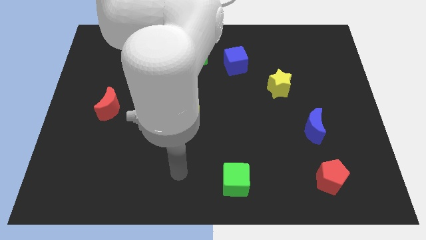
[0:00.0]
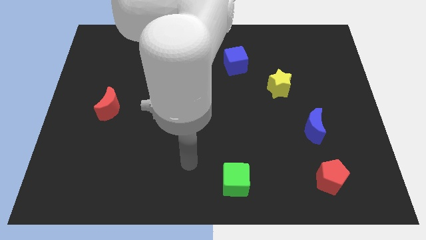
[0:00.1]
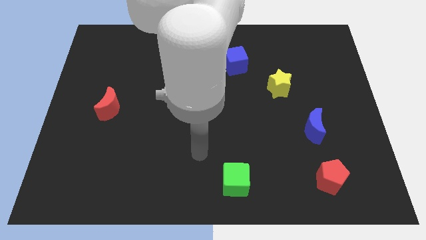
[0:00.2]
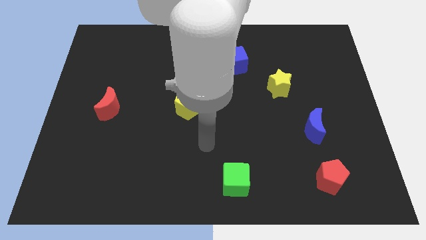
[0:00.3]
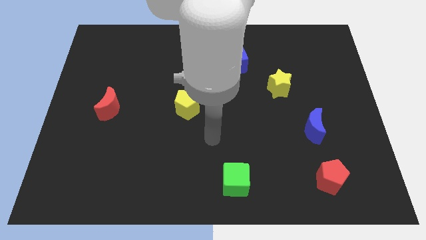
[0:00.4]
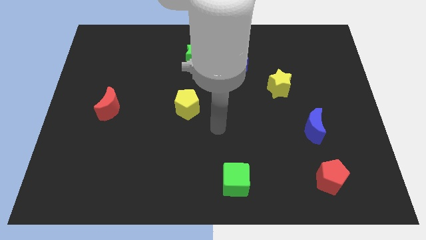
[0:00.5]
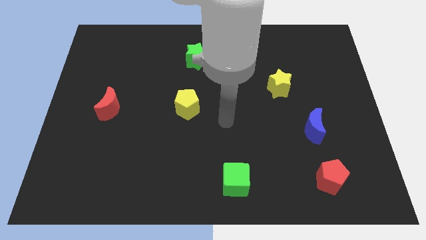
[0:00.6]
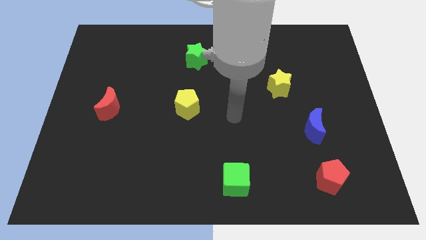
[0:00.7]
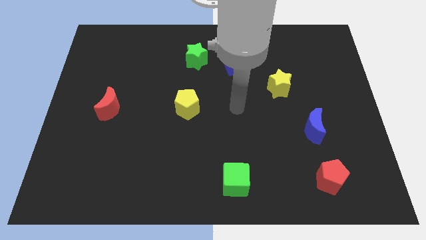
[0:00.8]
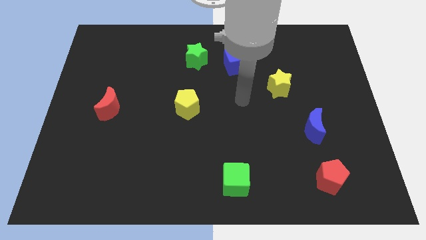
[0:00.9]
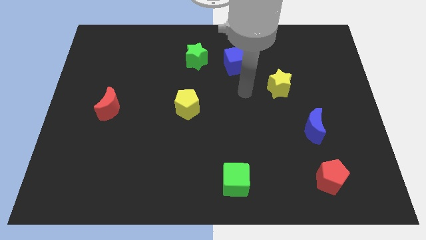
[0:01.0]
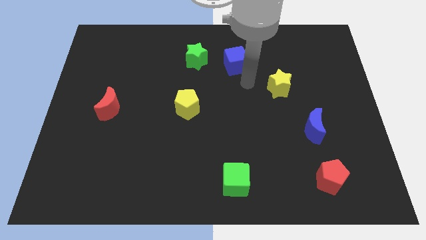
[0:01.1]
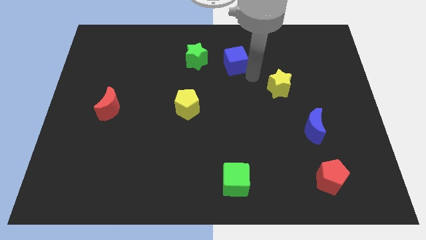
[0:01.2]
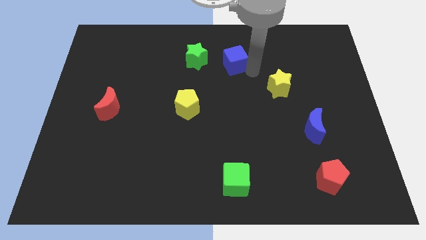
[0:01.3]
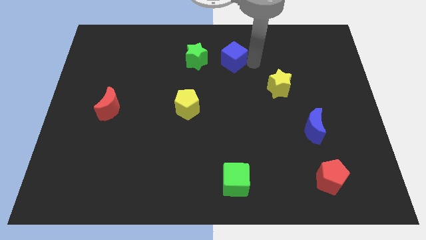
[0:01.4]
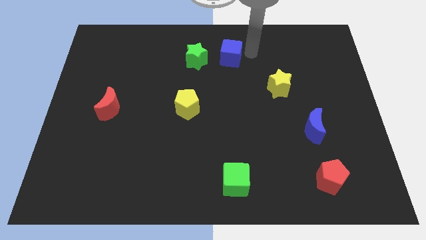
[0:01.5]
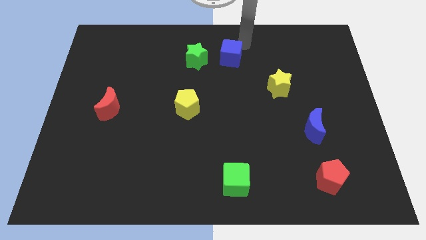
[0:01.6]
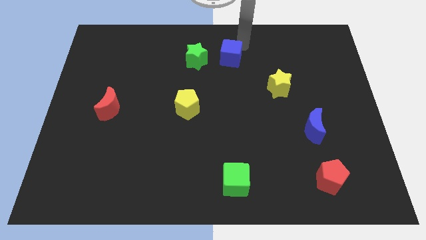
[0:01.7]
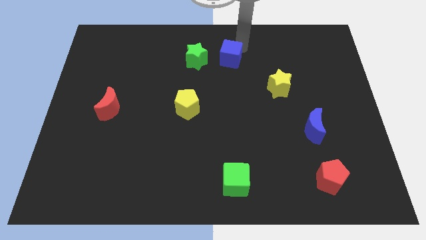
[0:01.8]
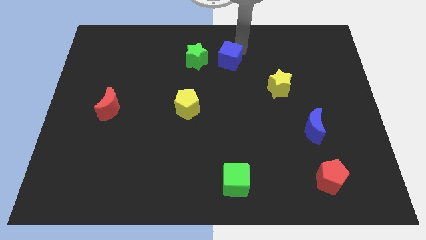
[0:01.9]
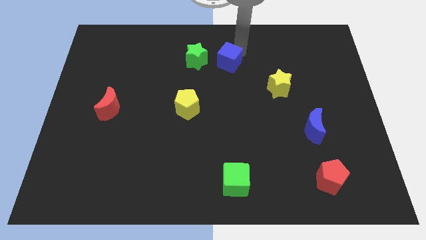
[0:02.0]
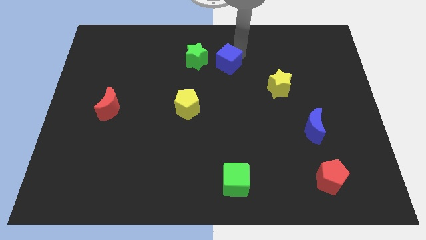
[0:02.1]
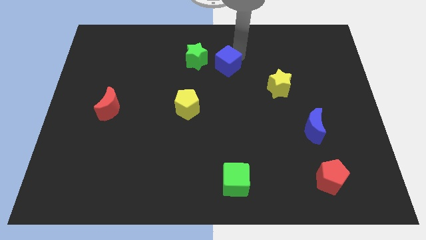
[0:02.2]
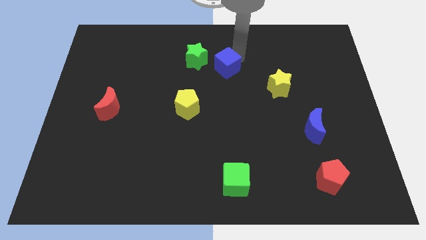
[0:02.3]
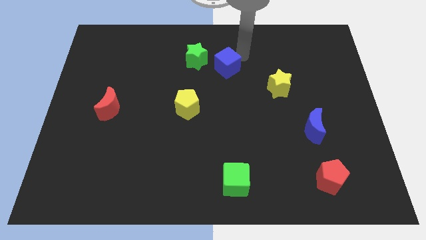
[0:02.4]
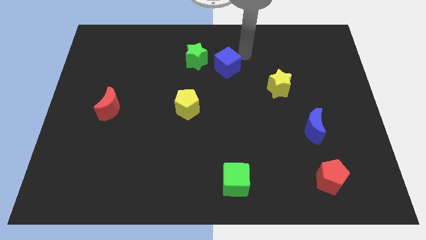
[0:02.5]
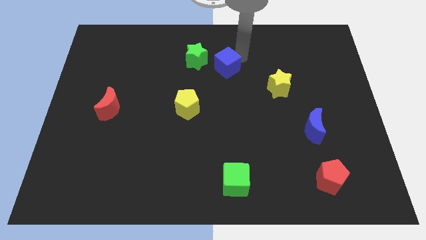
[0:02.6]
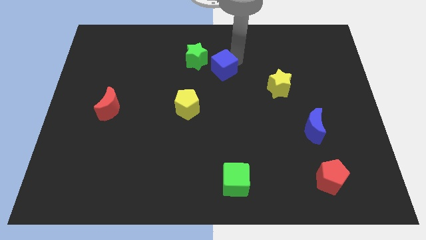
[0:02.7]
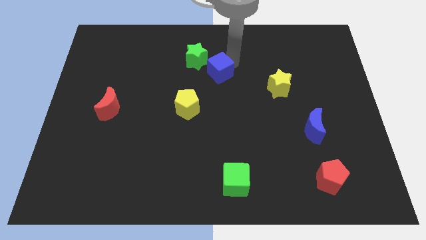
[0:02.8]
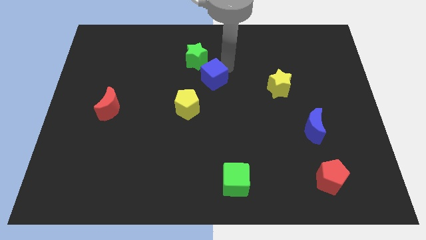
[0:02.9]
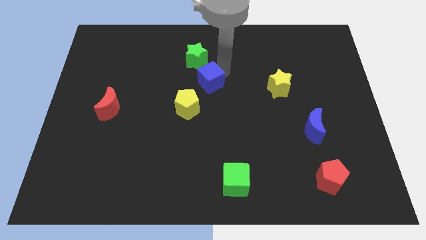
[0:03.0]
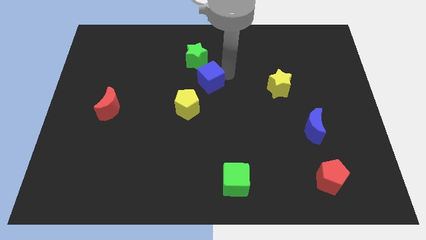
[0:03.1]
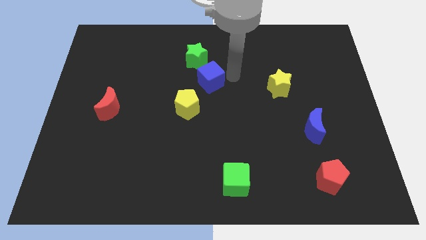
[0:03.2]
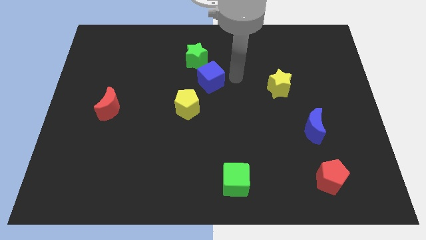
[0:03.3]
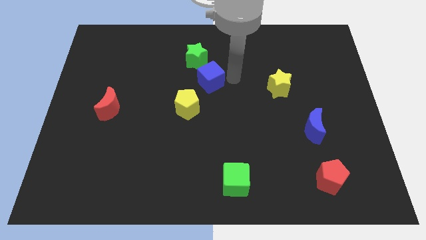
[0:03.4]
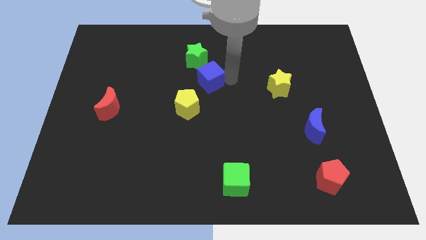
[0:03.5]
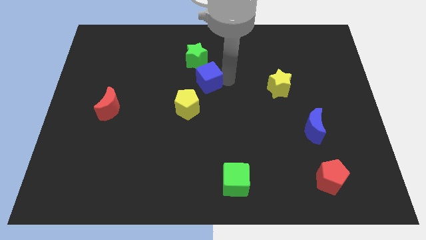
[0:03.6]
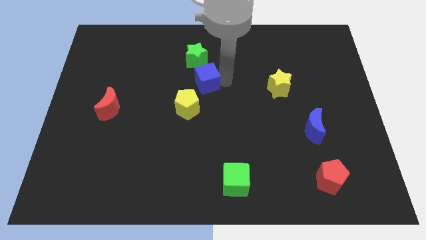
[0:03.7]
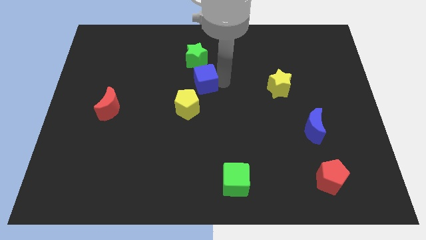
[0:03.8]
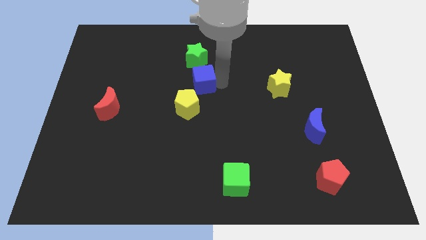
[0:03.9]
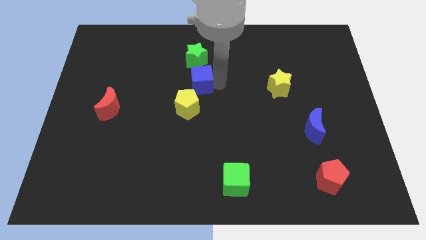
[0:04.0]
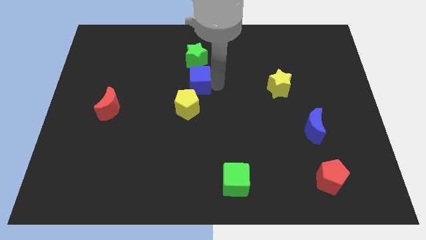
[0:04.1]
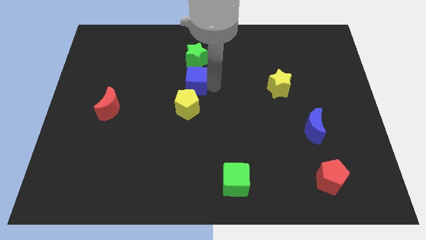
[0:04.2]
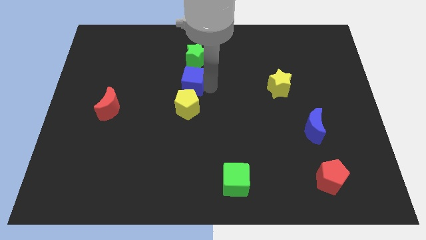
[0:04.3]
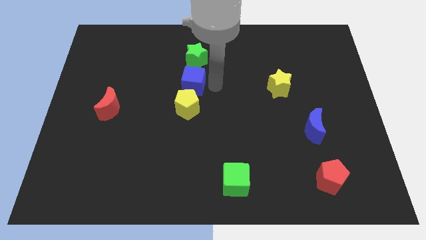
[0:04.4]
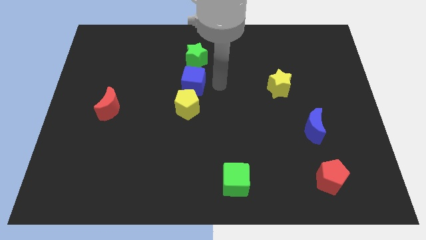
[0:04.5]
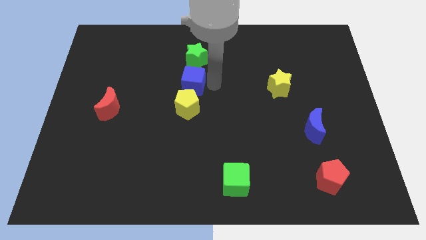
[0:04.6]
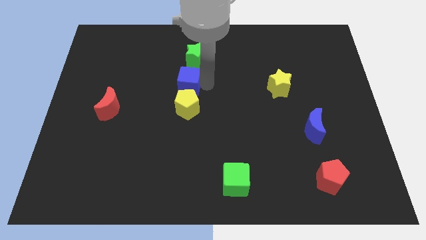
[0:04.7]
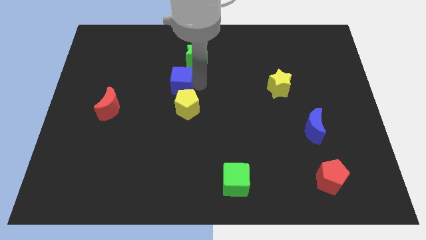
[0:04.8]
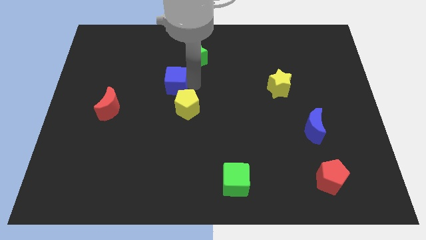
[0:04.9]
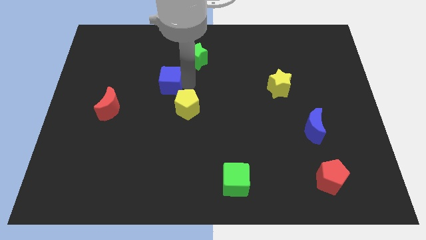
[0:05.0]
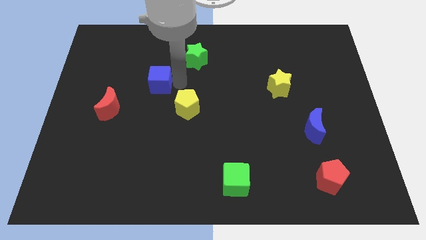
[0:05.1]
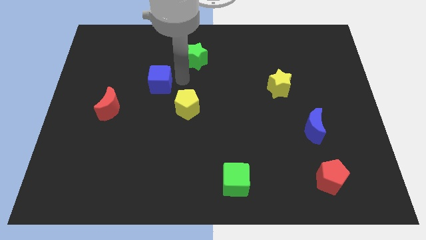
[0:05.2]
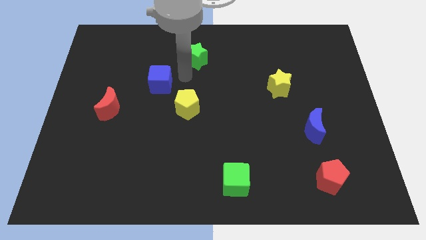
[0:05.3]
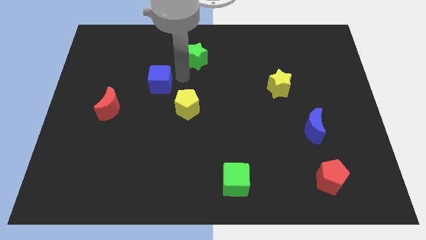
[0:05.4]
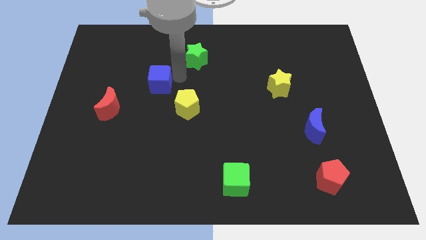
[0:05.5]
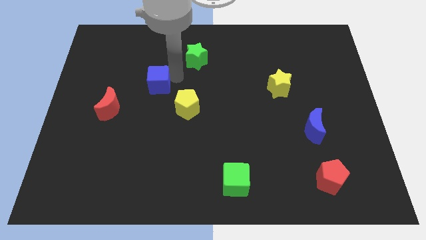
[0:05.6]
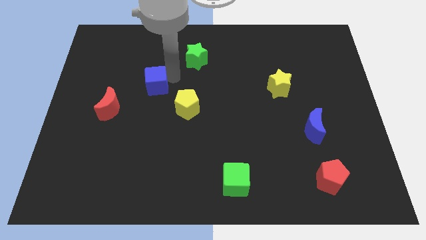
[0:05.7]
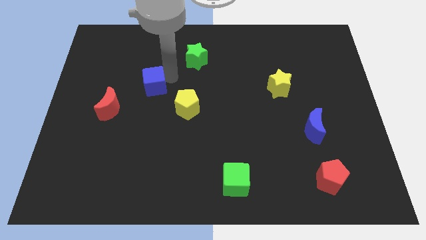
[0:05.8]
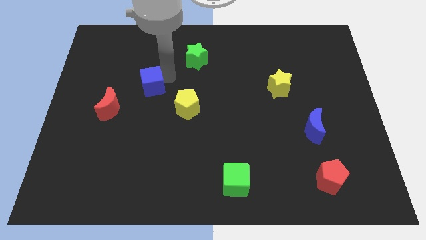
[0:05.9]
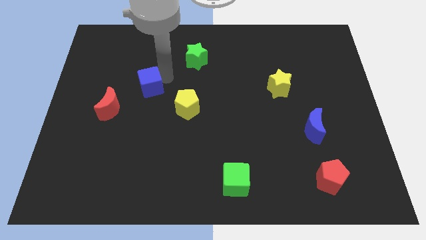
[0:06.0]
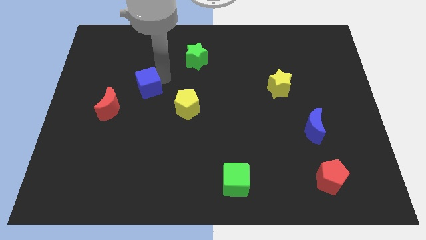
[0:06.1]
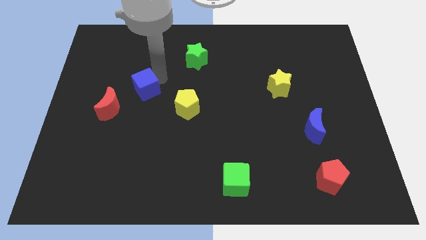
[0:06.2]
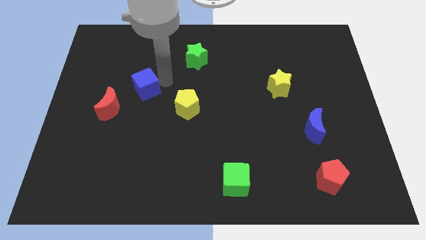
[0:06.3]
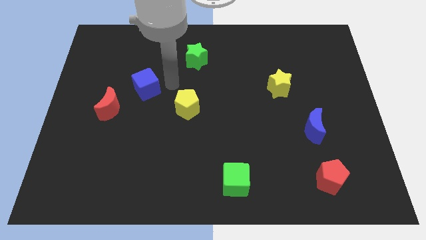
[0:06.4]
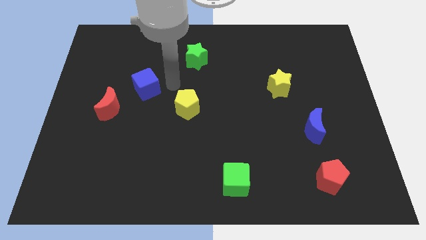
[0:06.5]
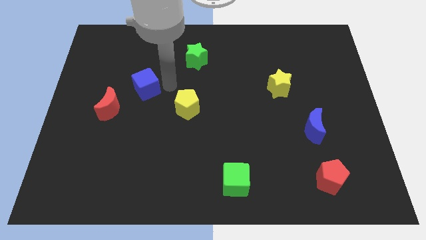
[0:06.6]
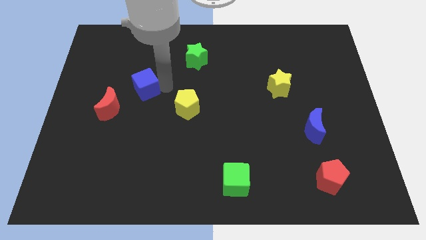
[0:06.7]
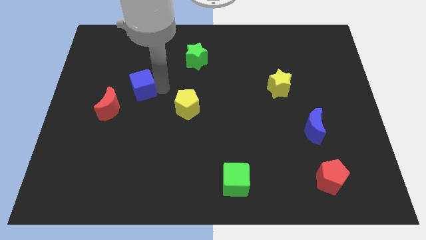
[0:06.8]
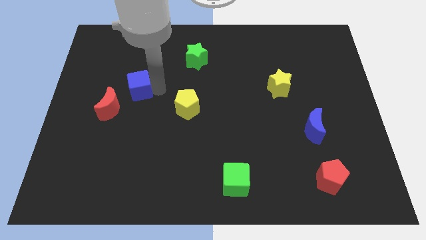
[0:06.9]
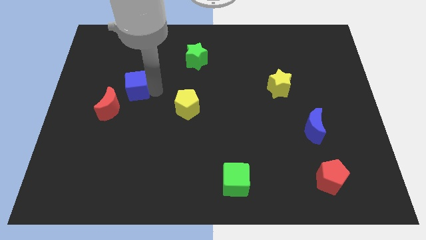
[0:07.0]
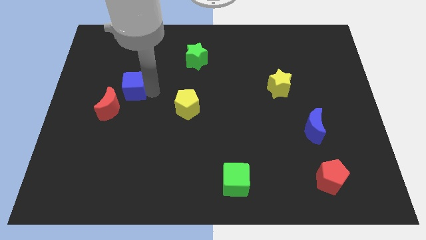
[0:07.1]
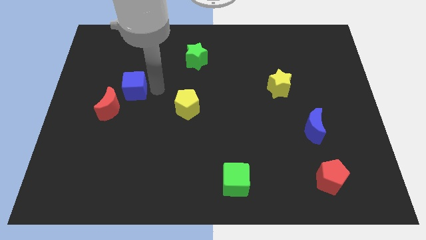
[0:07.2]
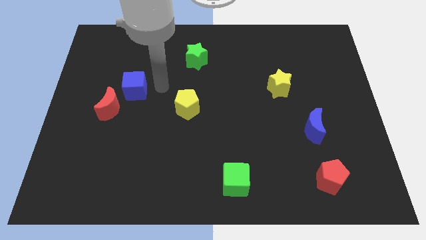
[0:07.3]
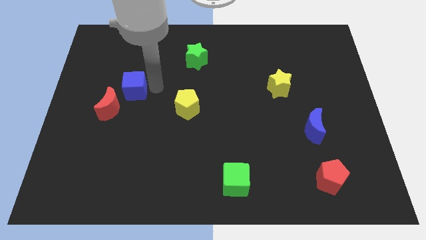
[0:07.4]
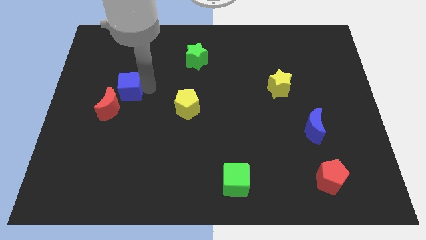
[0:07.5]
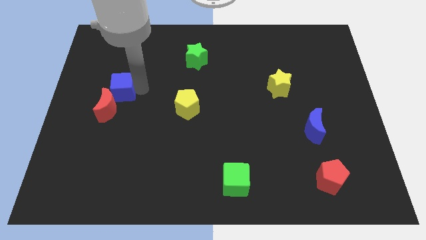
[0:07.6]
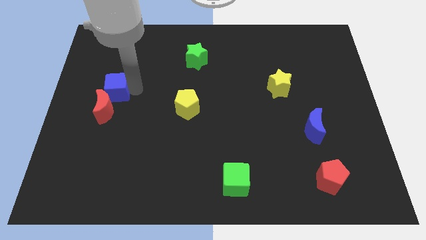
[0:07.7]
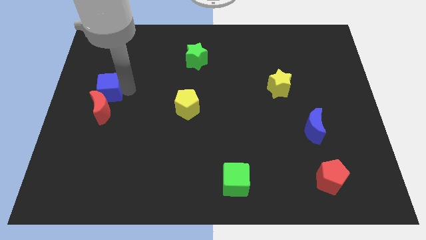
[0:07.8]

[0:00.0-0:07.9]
put the blue cube to the left side of the board
